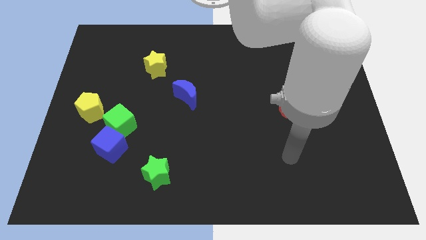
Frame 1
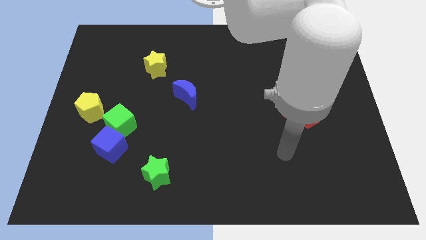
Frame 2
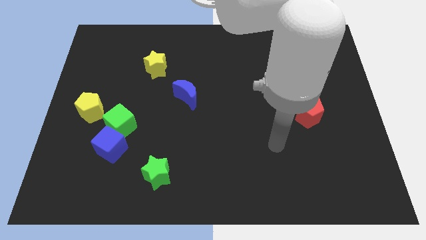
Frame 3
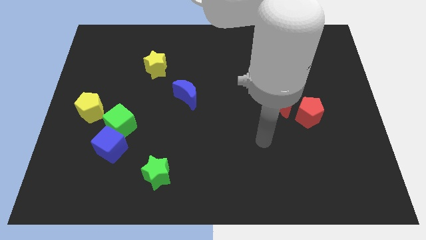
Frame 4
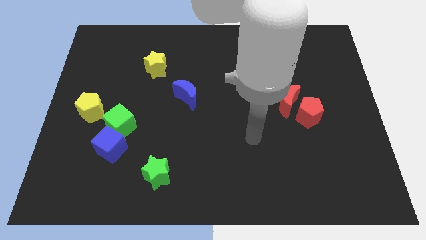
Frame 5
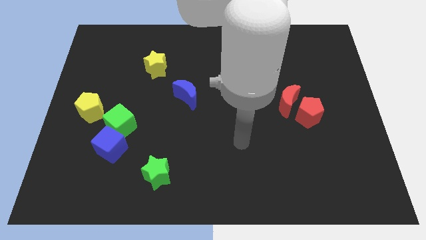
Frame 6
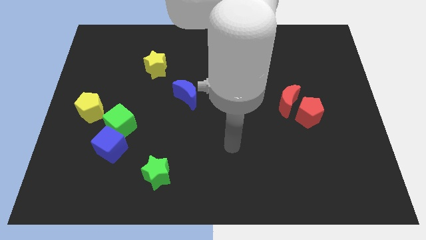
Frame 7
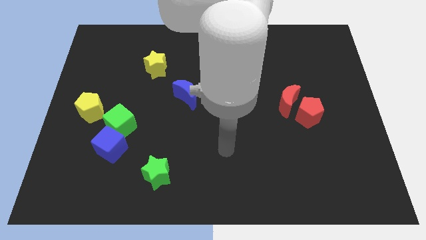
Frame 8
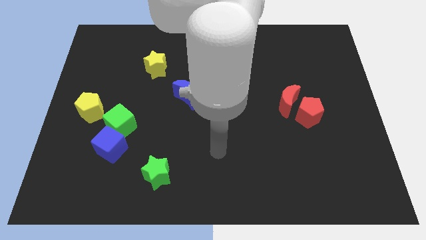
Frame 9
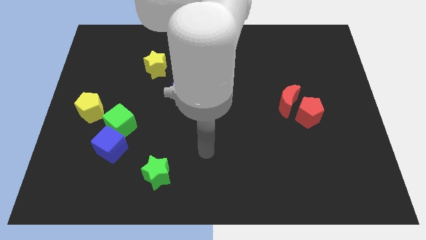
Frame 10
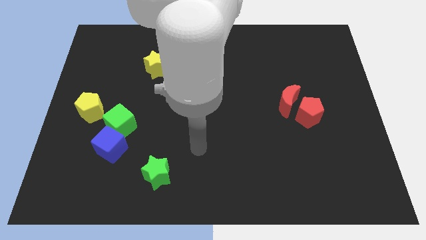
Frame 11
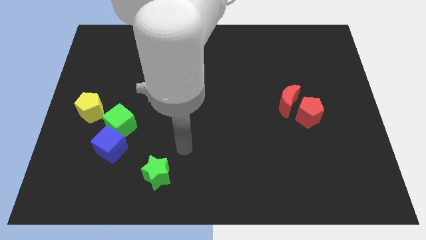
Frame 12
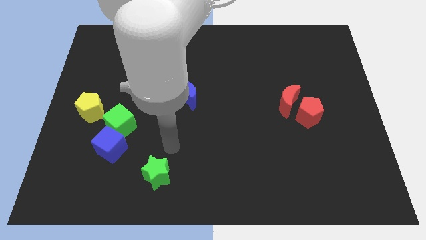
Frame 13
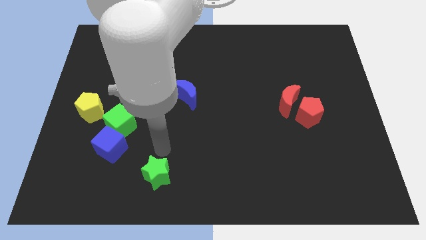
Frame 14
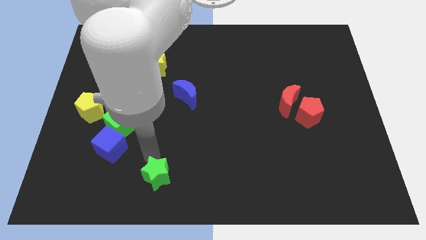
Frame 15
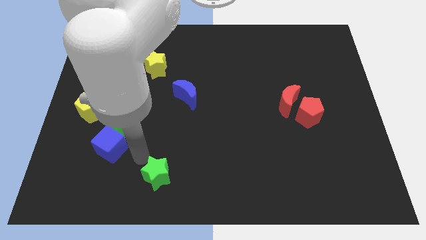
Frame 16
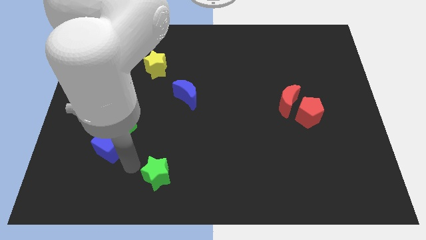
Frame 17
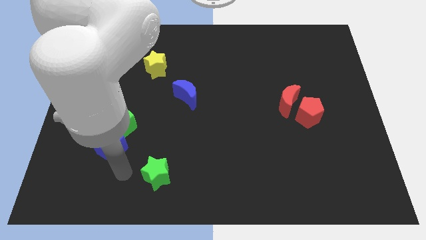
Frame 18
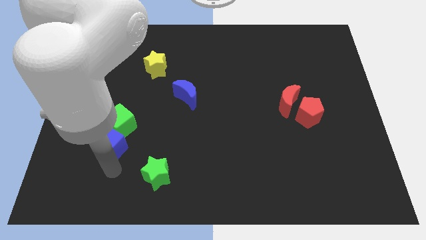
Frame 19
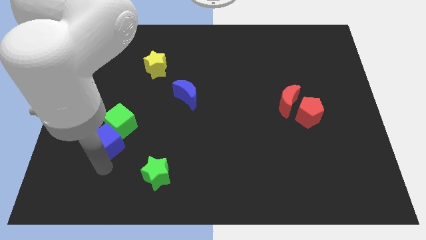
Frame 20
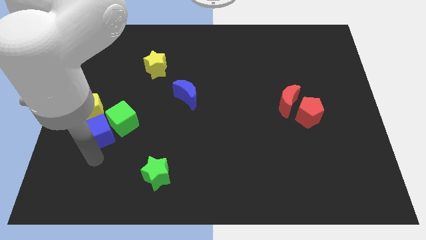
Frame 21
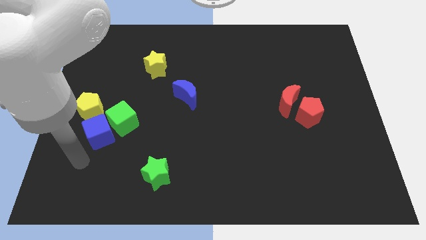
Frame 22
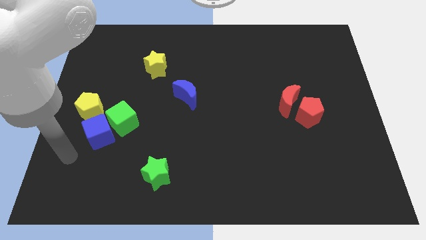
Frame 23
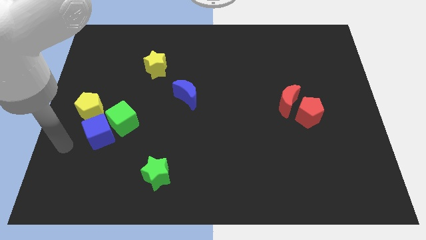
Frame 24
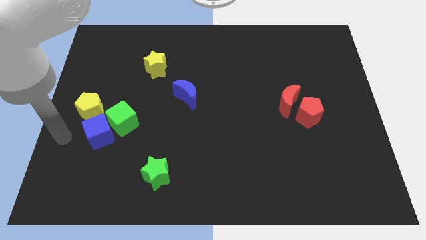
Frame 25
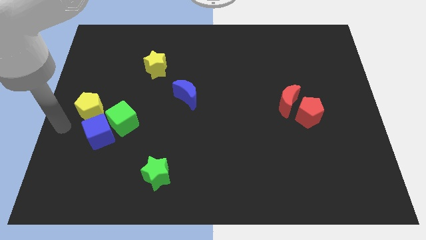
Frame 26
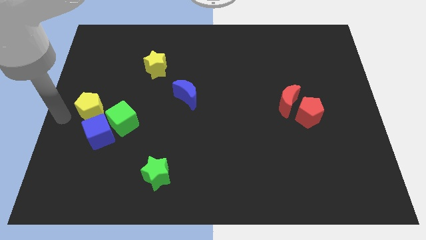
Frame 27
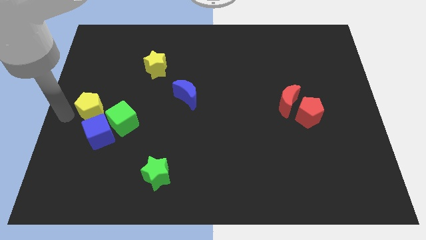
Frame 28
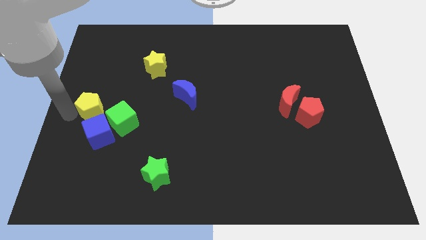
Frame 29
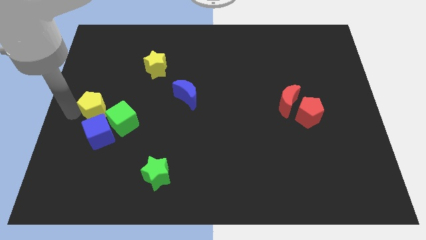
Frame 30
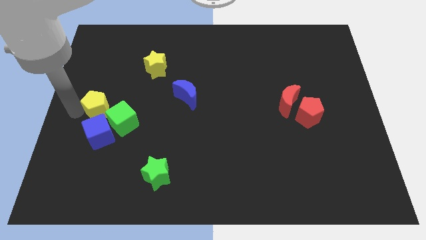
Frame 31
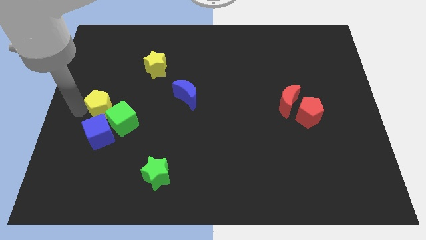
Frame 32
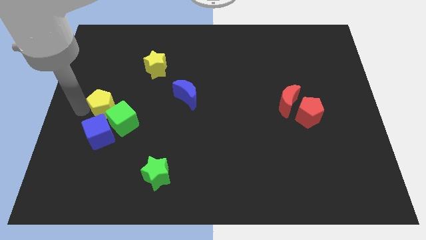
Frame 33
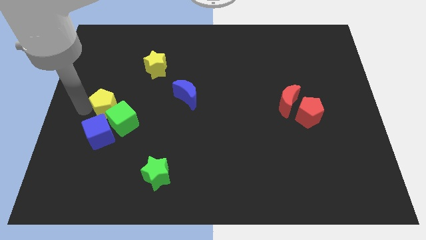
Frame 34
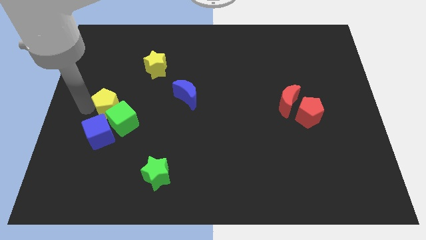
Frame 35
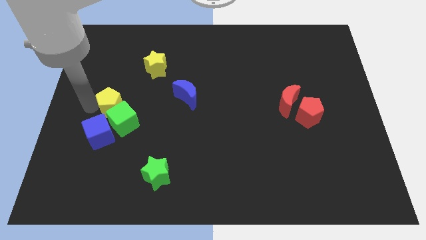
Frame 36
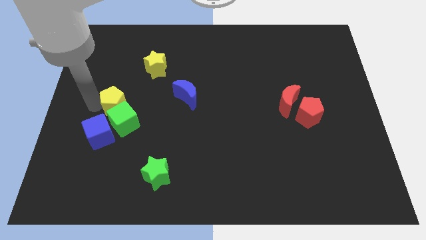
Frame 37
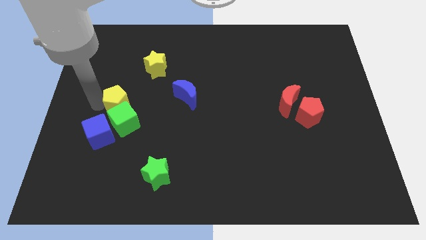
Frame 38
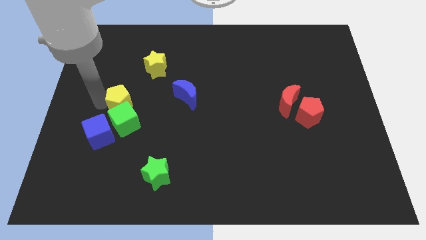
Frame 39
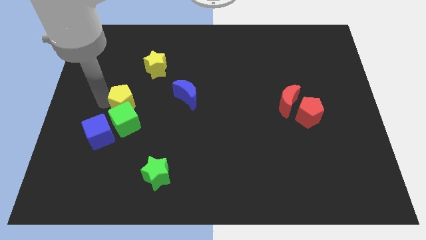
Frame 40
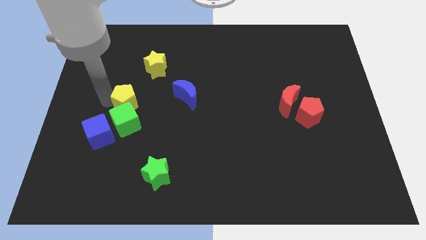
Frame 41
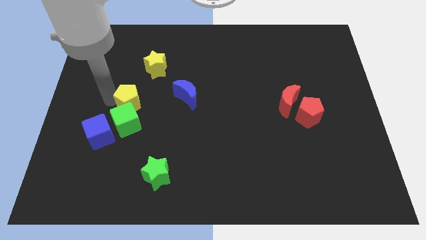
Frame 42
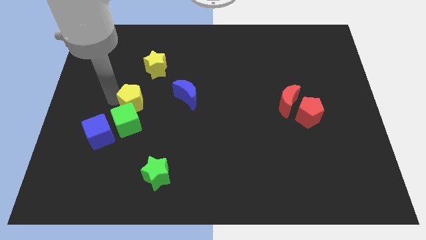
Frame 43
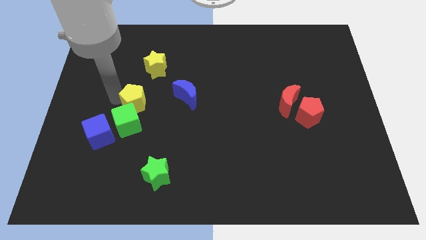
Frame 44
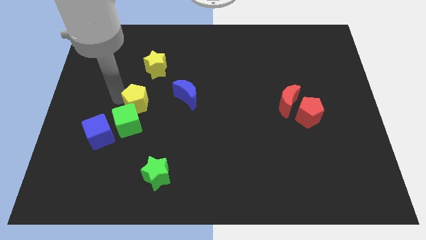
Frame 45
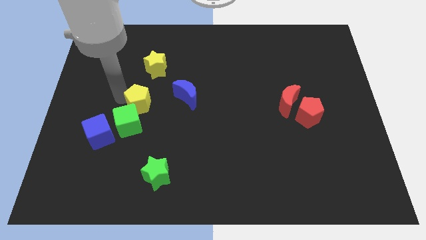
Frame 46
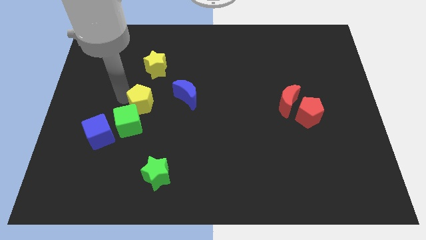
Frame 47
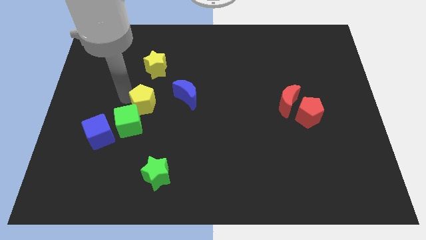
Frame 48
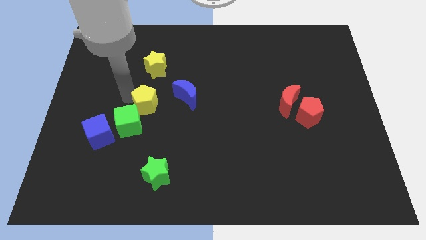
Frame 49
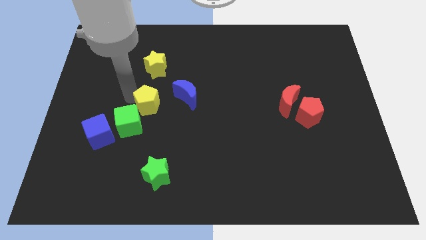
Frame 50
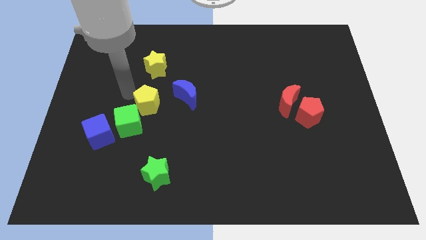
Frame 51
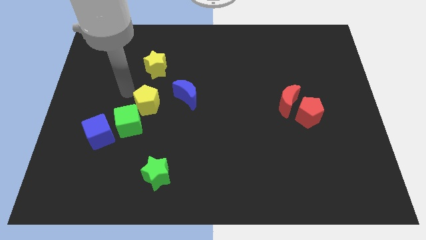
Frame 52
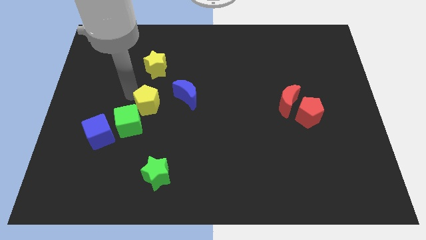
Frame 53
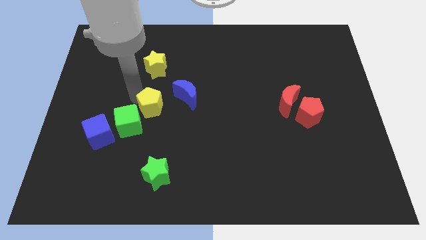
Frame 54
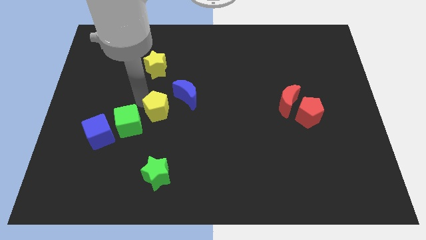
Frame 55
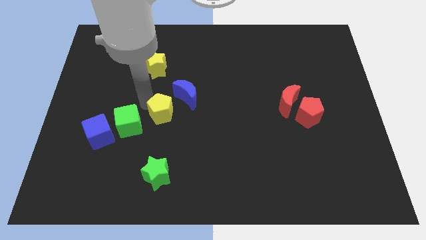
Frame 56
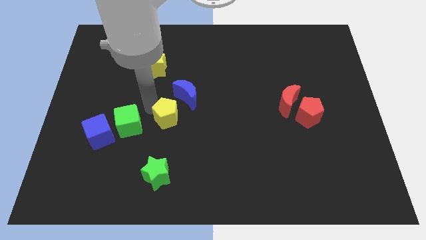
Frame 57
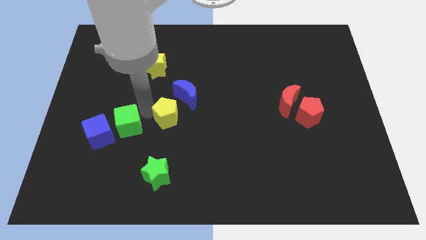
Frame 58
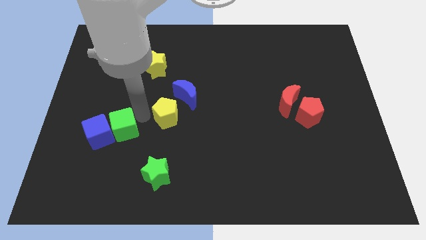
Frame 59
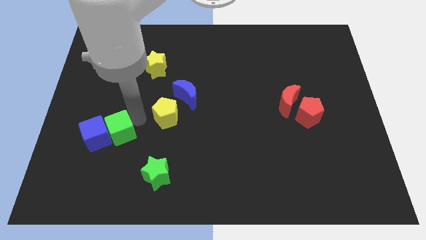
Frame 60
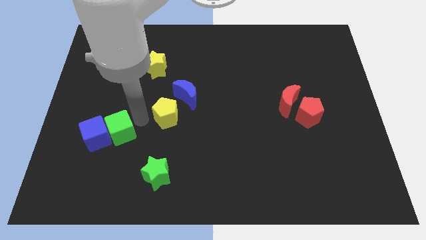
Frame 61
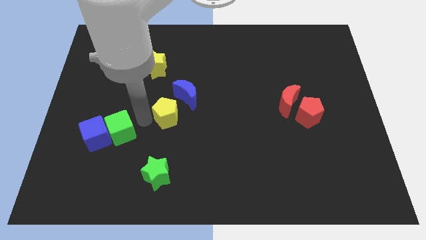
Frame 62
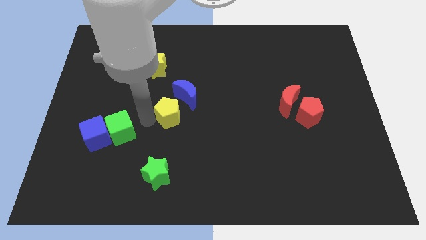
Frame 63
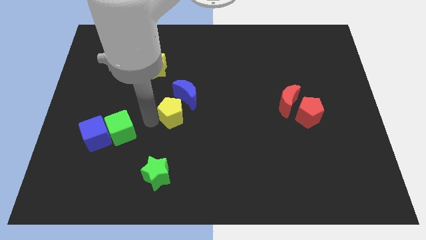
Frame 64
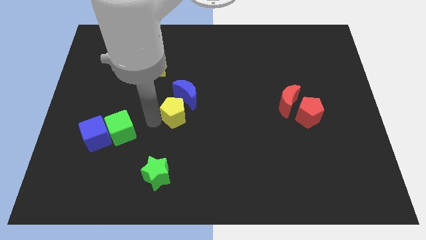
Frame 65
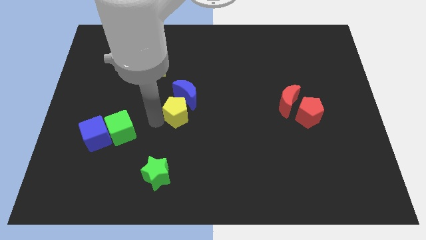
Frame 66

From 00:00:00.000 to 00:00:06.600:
push the yellow pentagon right

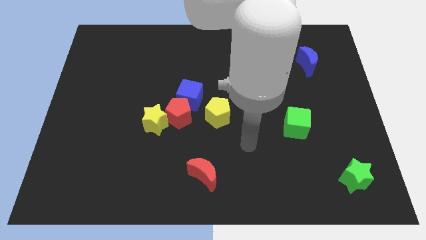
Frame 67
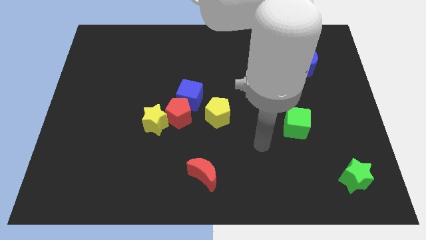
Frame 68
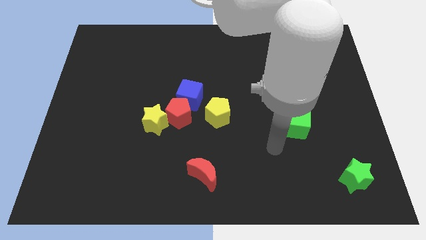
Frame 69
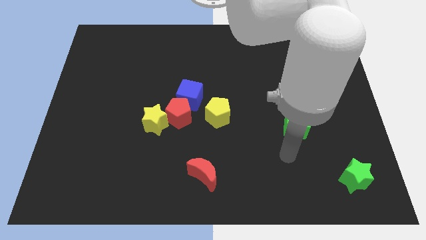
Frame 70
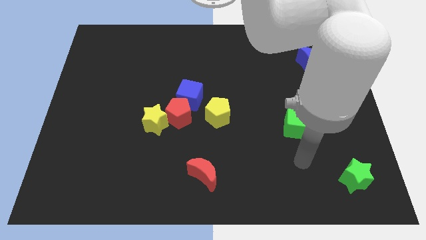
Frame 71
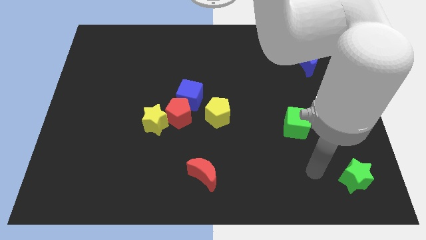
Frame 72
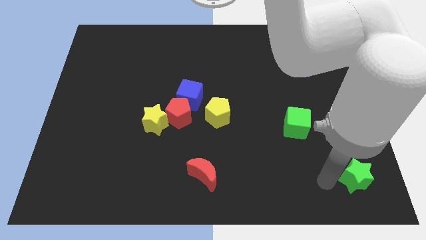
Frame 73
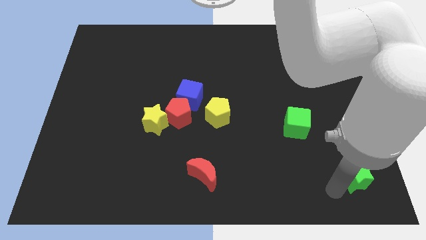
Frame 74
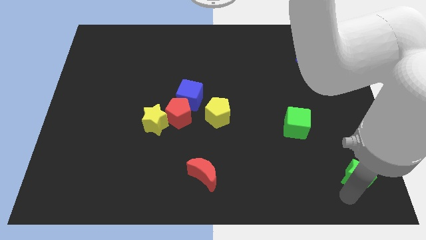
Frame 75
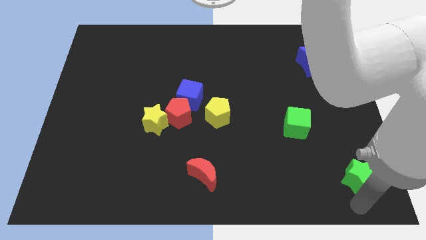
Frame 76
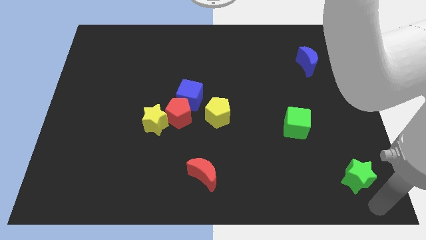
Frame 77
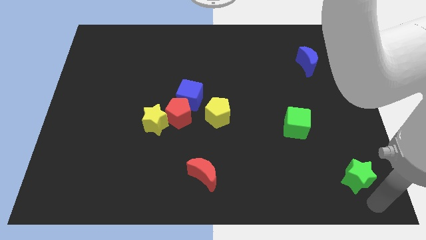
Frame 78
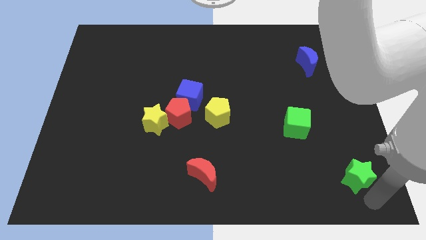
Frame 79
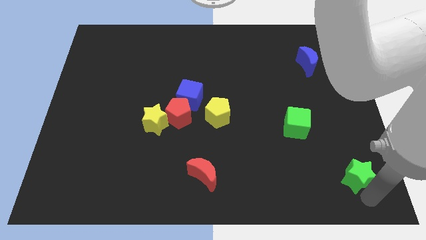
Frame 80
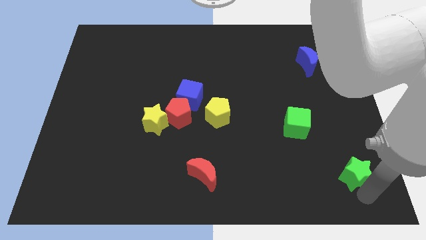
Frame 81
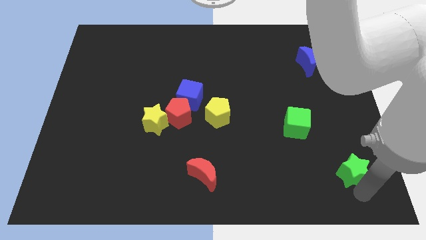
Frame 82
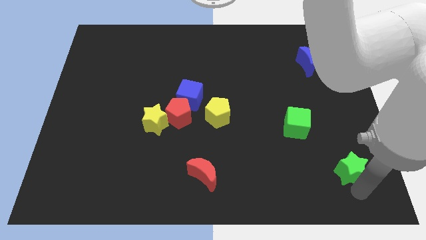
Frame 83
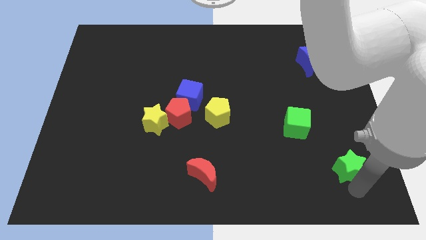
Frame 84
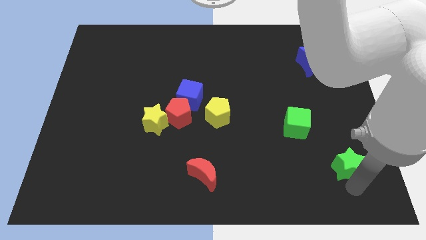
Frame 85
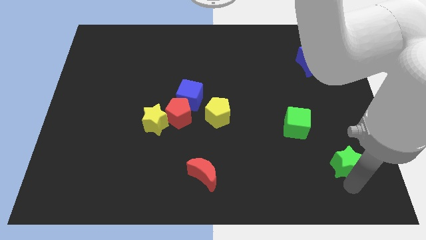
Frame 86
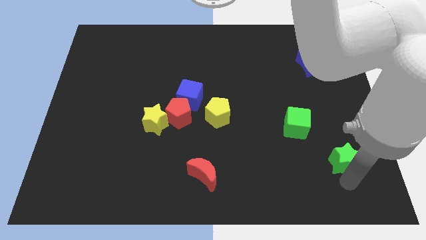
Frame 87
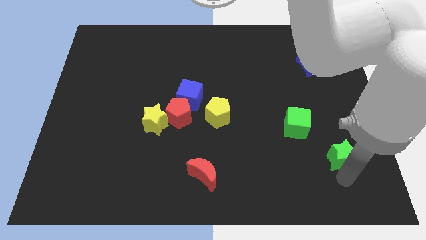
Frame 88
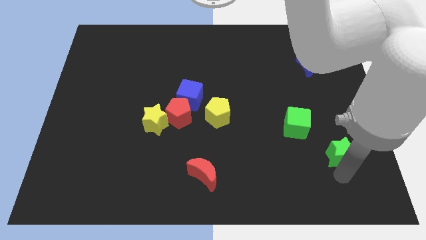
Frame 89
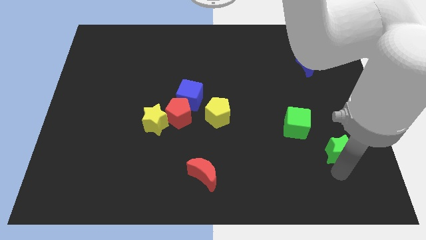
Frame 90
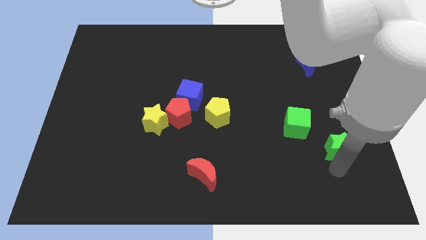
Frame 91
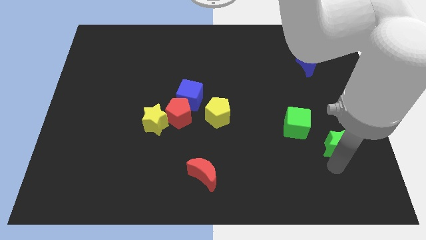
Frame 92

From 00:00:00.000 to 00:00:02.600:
slide the green star a little up
